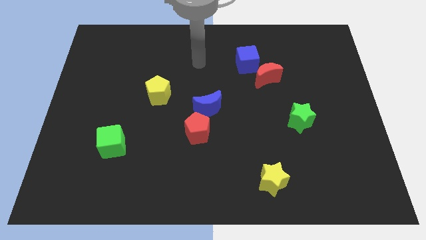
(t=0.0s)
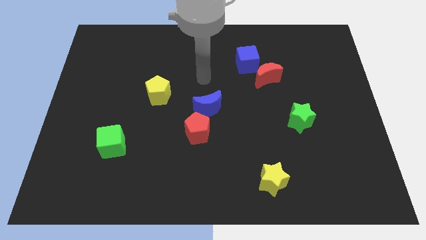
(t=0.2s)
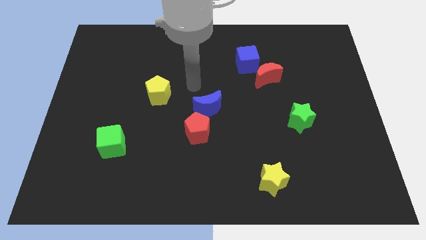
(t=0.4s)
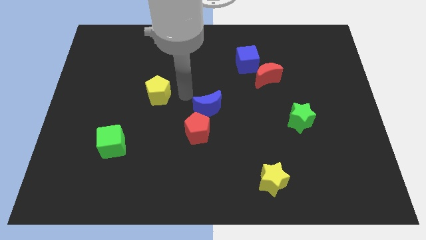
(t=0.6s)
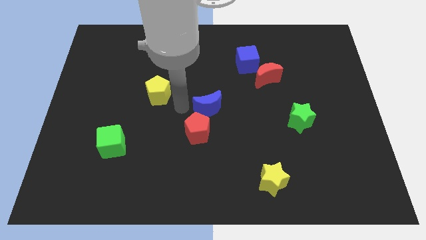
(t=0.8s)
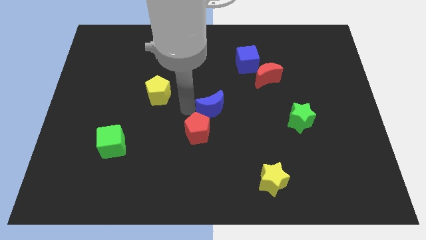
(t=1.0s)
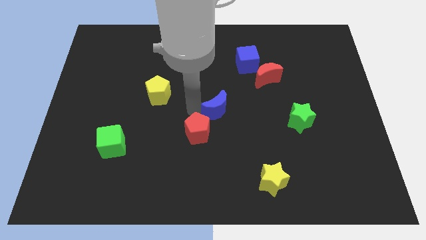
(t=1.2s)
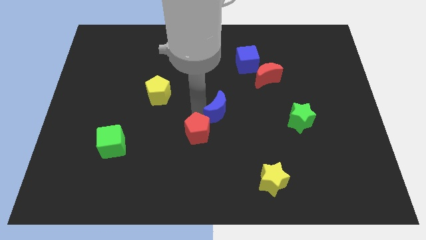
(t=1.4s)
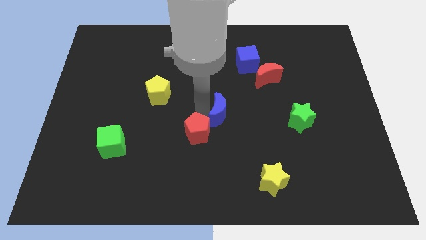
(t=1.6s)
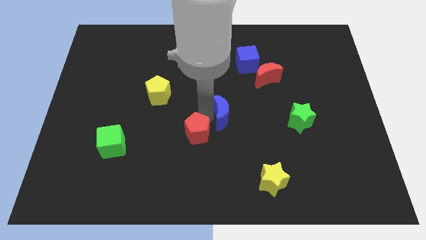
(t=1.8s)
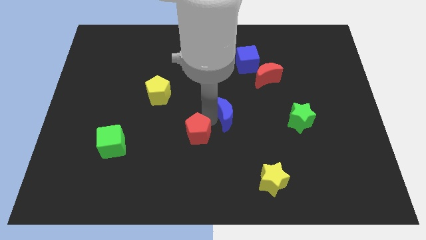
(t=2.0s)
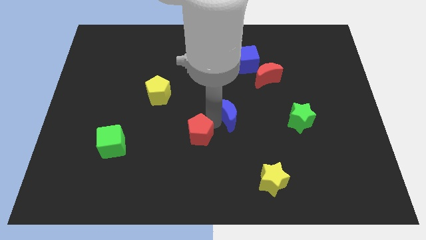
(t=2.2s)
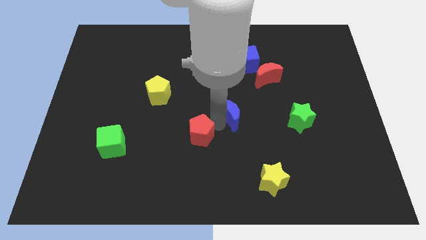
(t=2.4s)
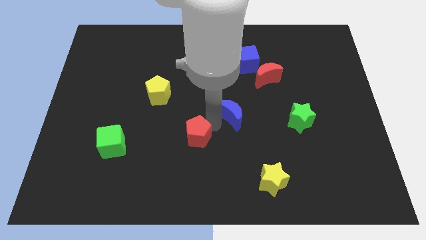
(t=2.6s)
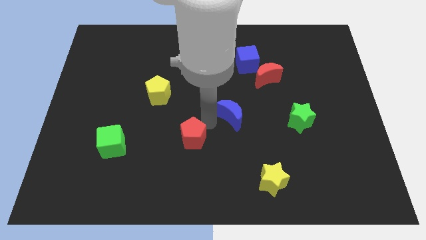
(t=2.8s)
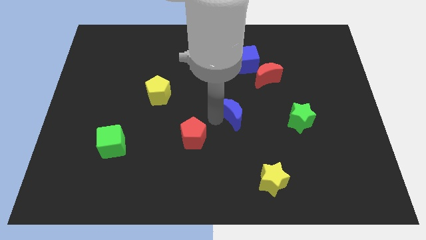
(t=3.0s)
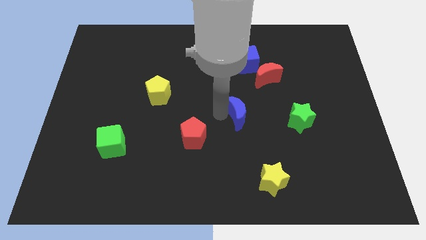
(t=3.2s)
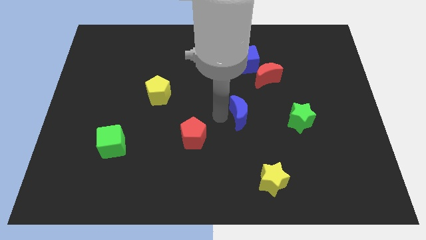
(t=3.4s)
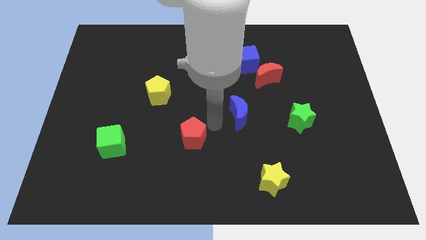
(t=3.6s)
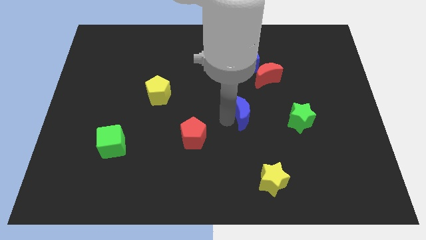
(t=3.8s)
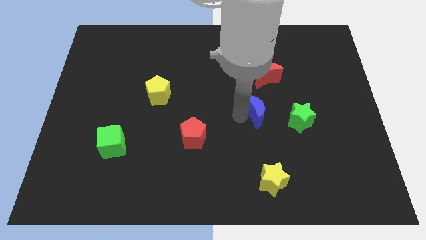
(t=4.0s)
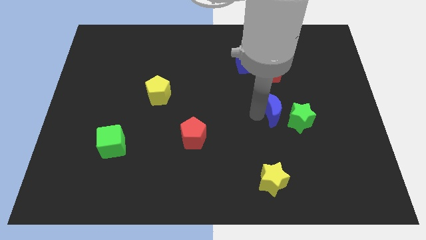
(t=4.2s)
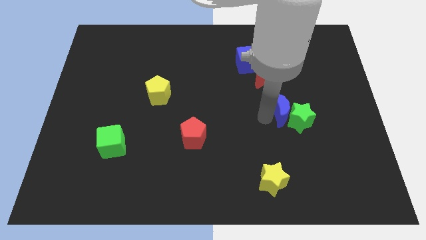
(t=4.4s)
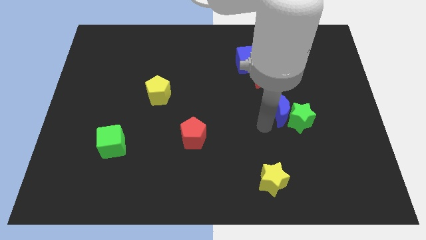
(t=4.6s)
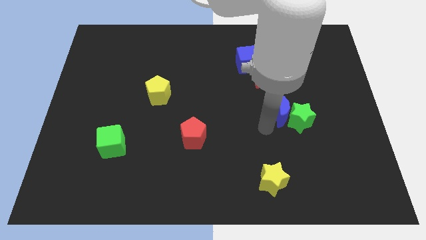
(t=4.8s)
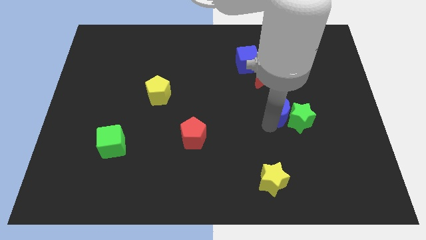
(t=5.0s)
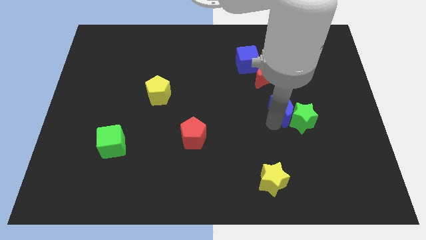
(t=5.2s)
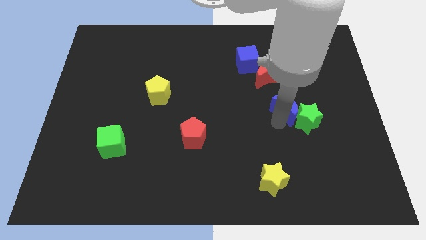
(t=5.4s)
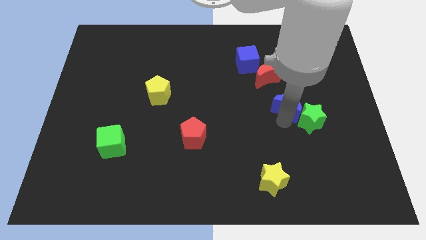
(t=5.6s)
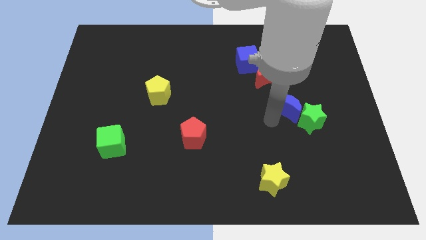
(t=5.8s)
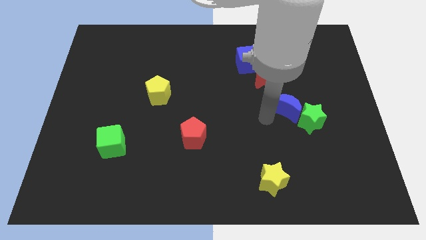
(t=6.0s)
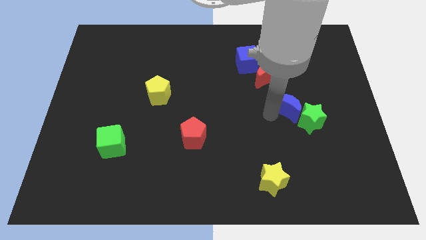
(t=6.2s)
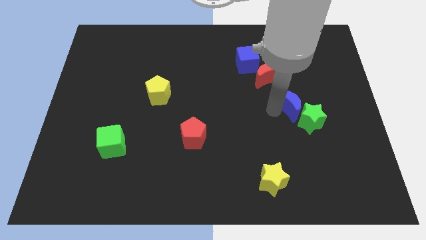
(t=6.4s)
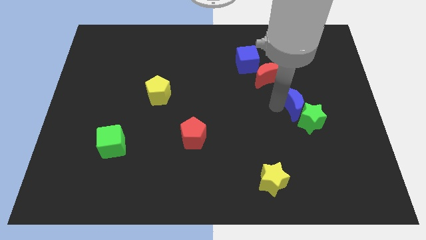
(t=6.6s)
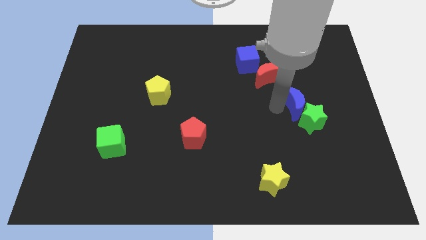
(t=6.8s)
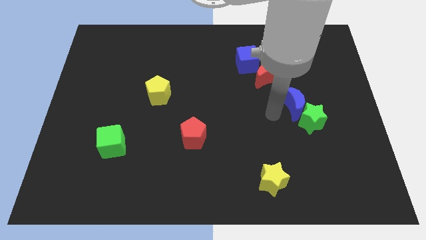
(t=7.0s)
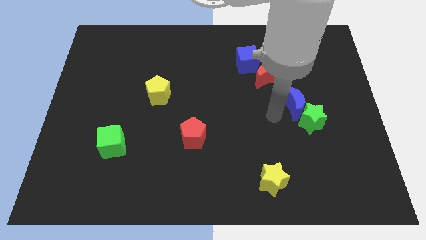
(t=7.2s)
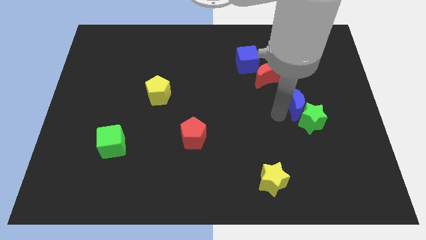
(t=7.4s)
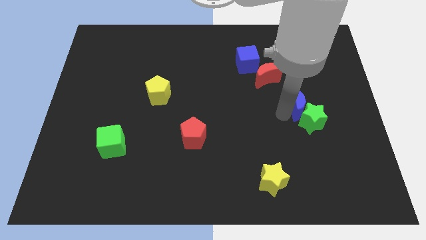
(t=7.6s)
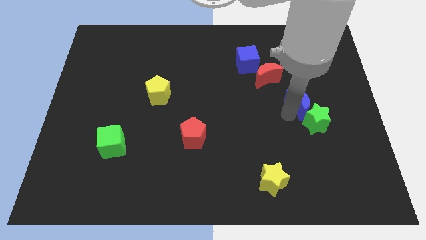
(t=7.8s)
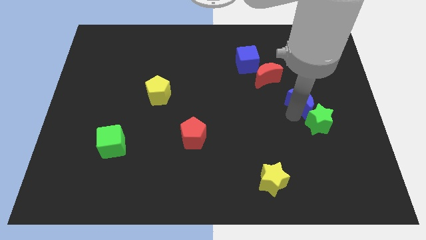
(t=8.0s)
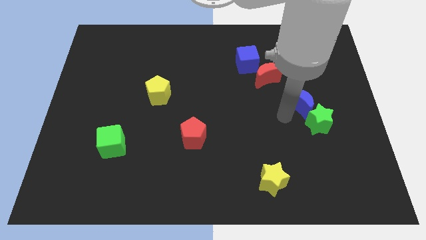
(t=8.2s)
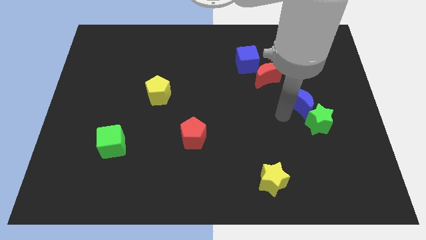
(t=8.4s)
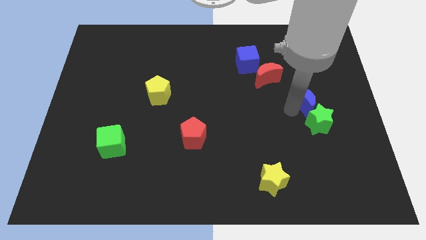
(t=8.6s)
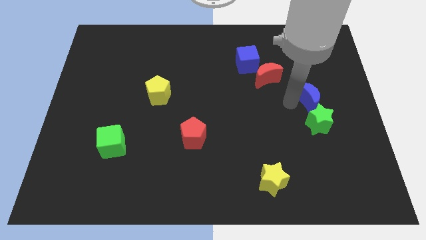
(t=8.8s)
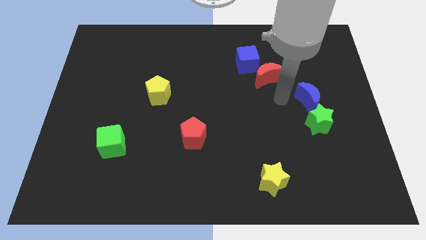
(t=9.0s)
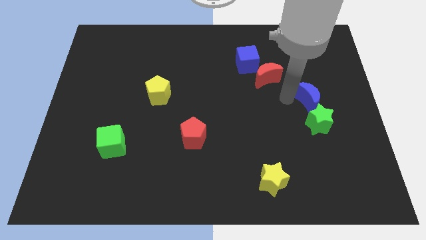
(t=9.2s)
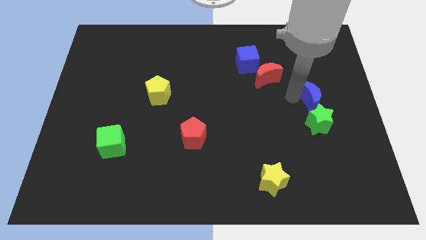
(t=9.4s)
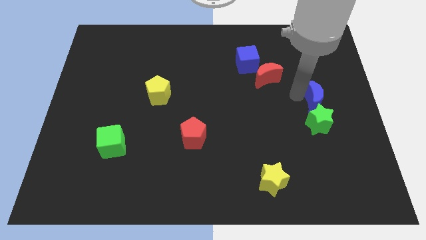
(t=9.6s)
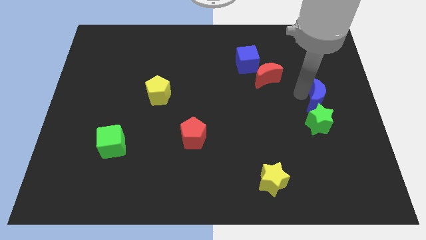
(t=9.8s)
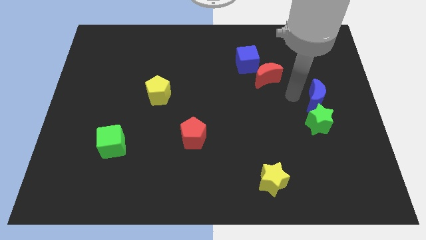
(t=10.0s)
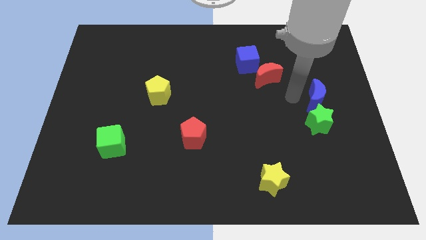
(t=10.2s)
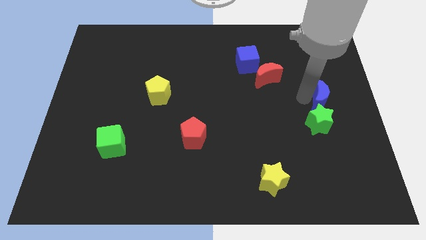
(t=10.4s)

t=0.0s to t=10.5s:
put the blue moon to the center right

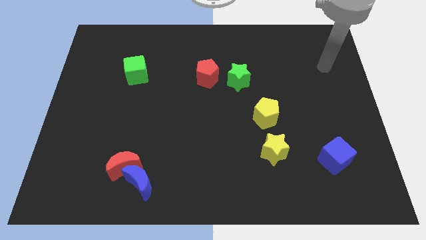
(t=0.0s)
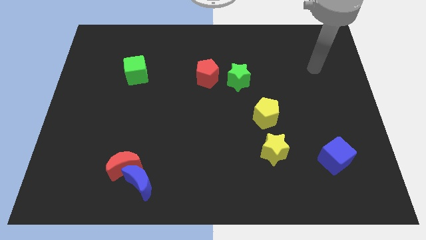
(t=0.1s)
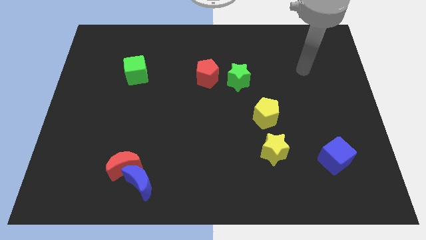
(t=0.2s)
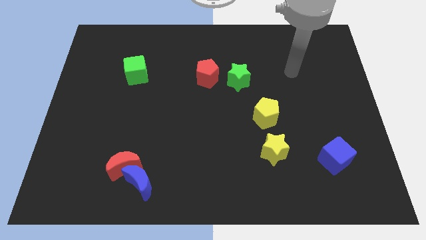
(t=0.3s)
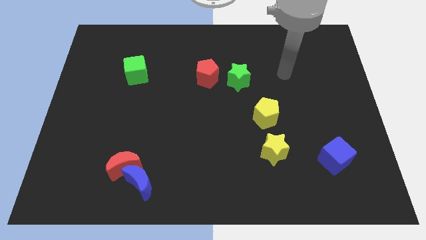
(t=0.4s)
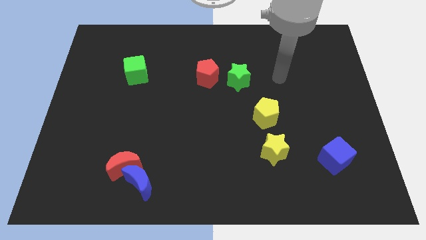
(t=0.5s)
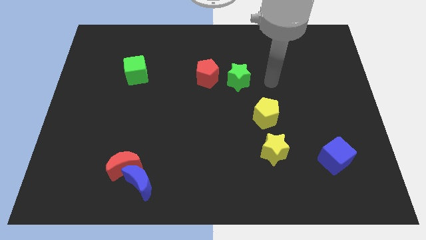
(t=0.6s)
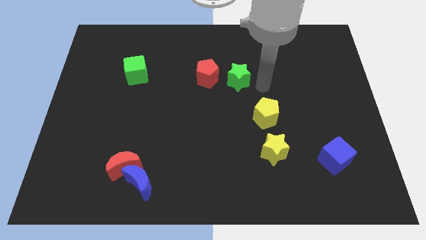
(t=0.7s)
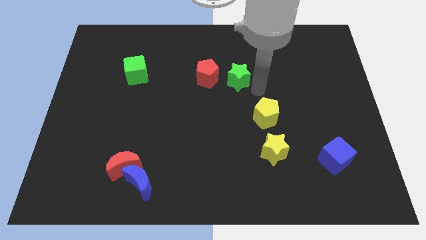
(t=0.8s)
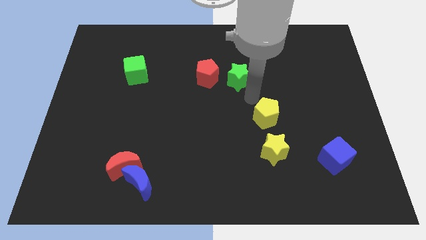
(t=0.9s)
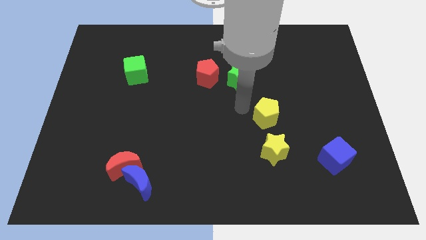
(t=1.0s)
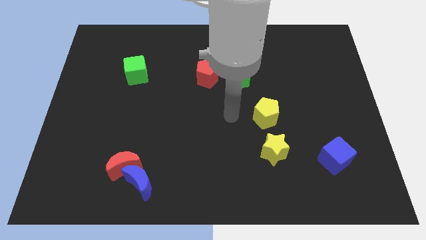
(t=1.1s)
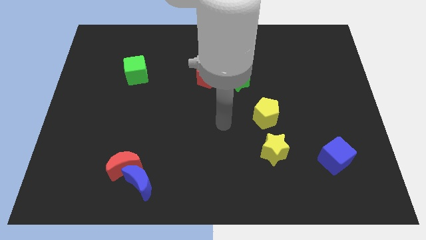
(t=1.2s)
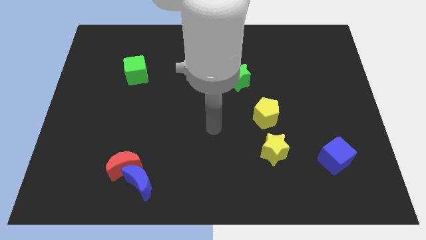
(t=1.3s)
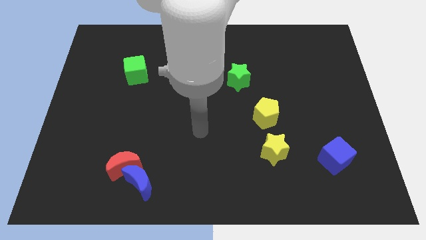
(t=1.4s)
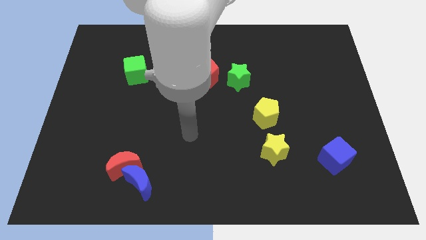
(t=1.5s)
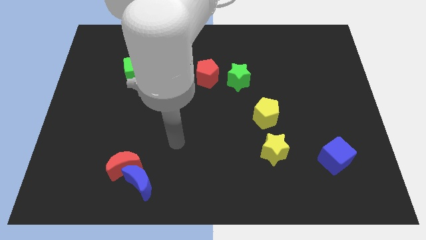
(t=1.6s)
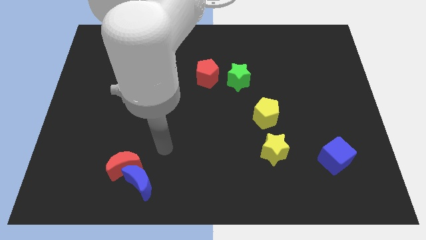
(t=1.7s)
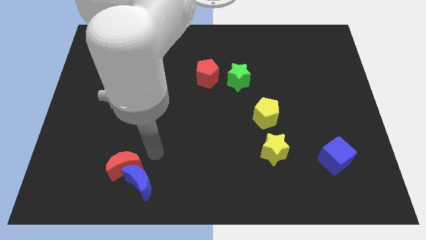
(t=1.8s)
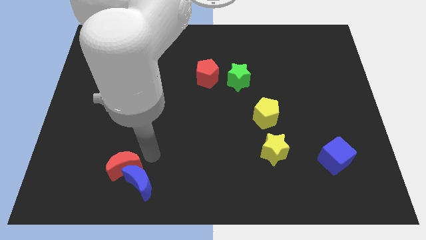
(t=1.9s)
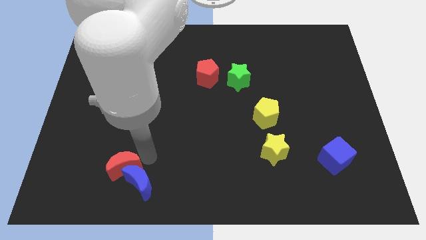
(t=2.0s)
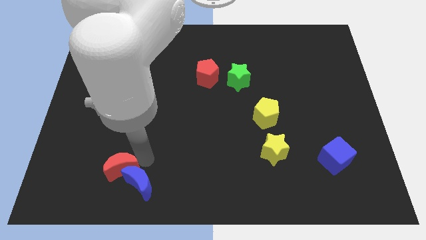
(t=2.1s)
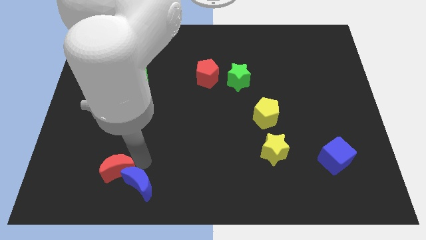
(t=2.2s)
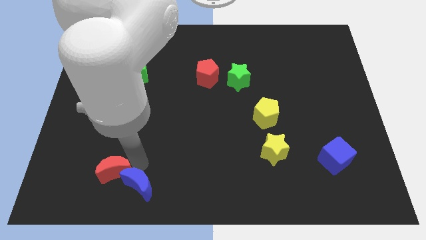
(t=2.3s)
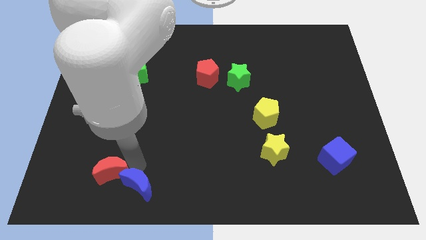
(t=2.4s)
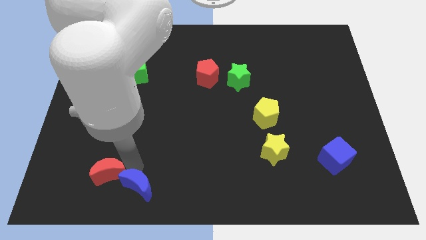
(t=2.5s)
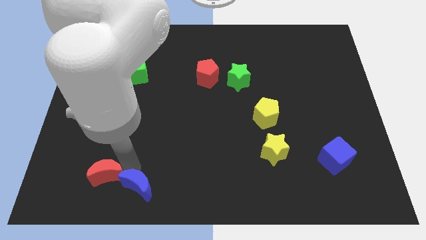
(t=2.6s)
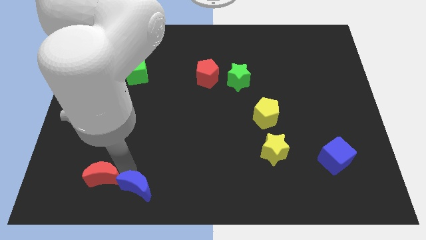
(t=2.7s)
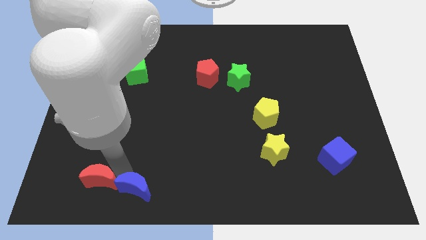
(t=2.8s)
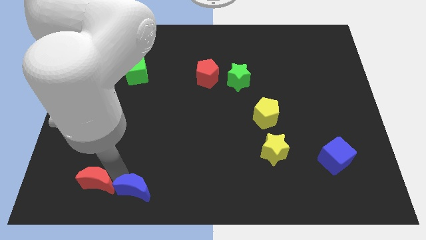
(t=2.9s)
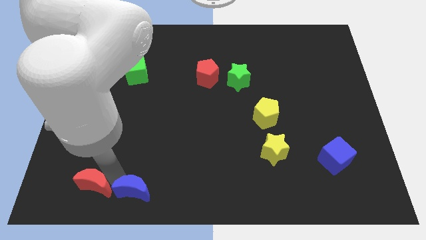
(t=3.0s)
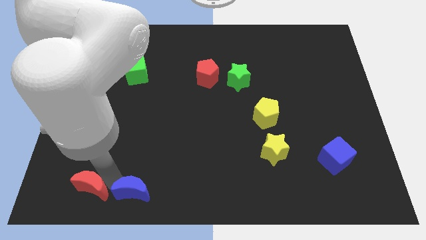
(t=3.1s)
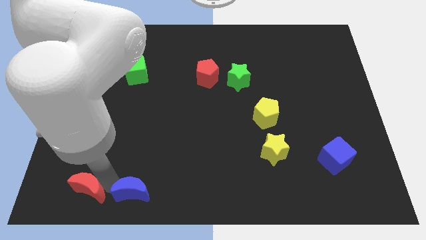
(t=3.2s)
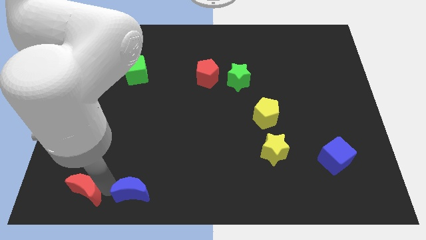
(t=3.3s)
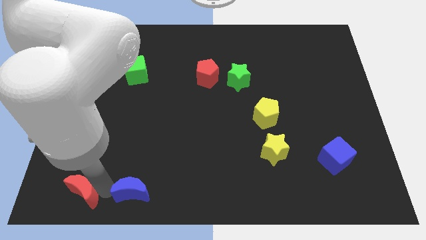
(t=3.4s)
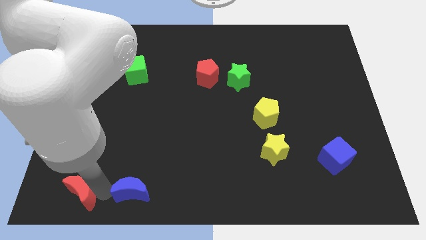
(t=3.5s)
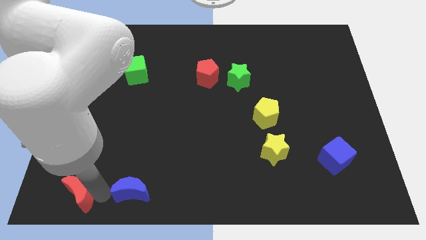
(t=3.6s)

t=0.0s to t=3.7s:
put the red moon to the bottom left of the board
